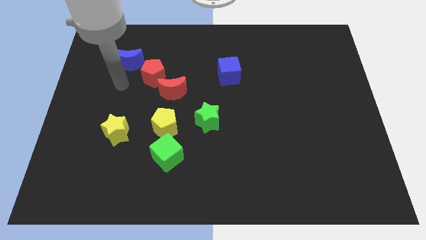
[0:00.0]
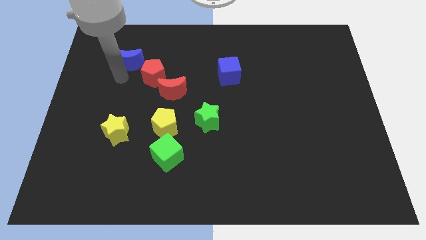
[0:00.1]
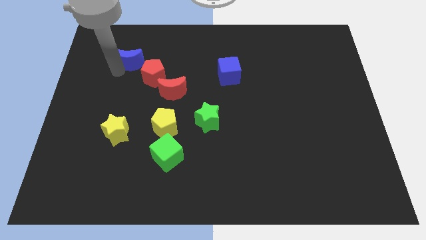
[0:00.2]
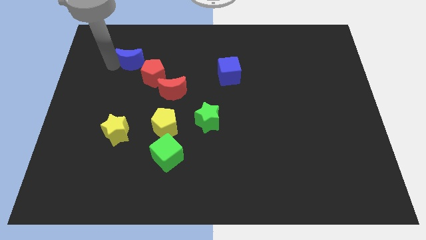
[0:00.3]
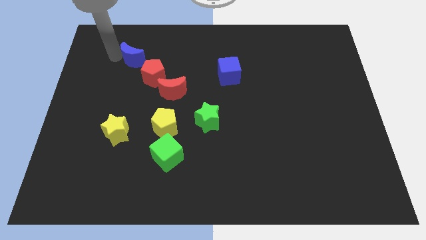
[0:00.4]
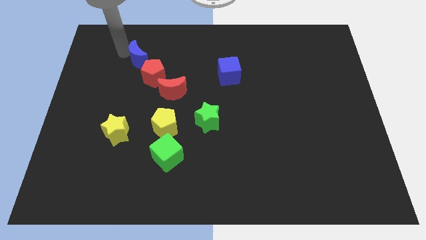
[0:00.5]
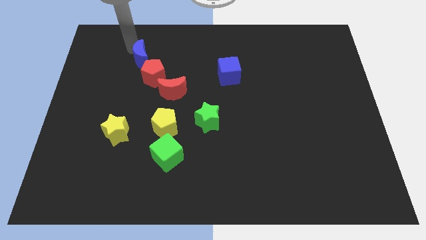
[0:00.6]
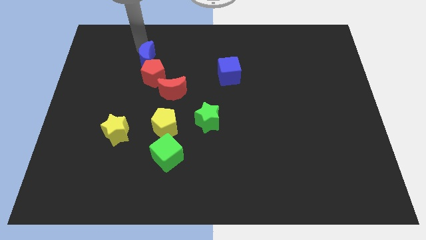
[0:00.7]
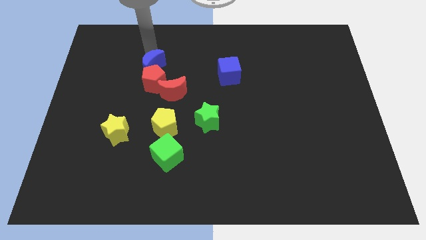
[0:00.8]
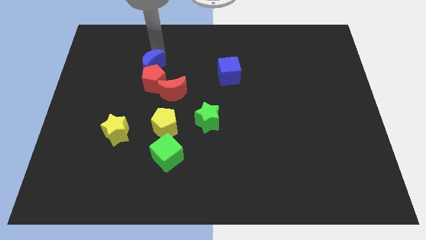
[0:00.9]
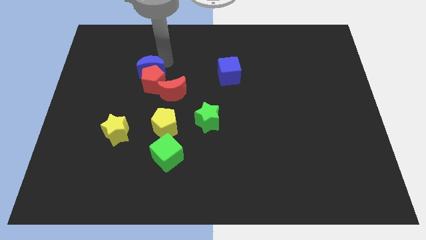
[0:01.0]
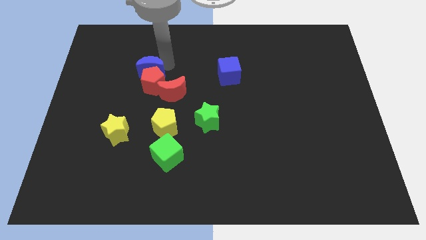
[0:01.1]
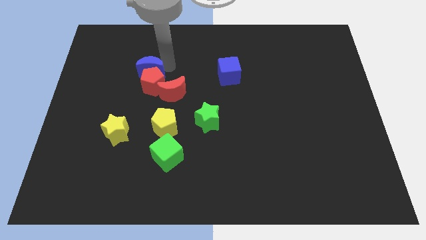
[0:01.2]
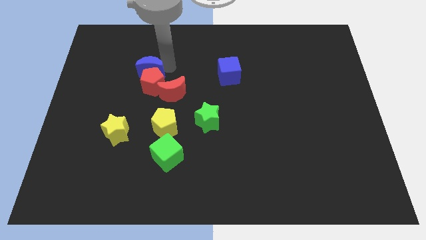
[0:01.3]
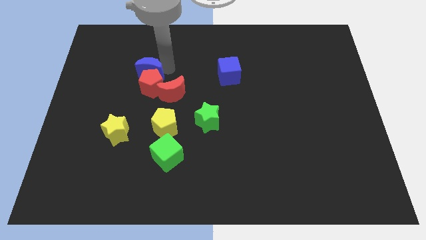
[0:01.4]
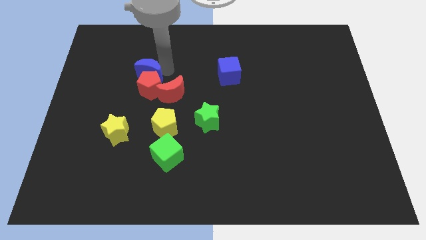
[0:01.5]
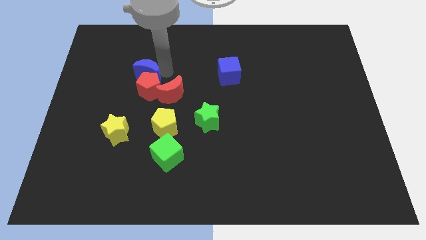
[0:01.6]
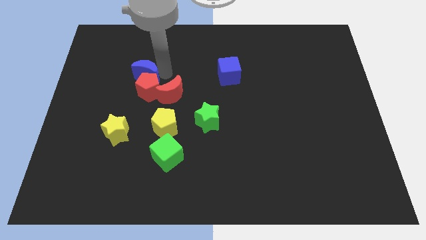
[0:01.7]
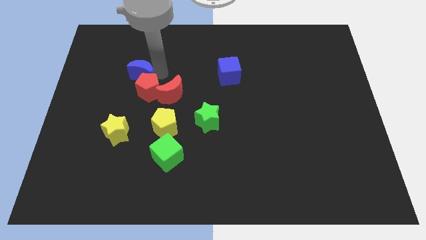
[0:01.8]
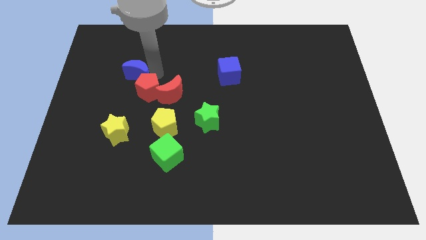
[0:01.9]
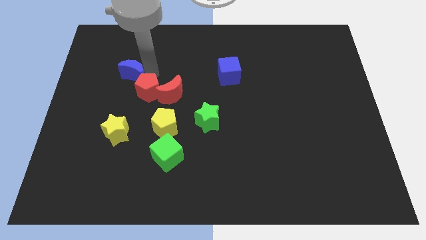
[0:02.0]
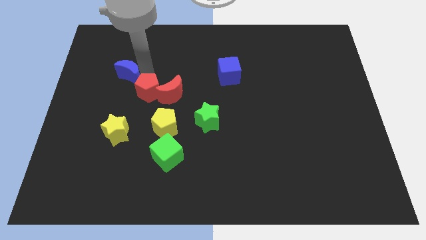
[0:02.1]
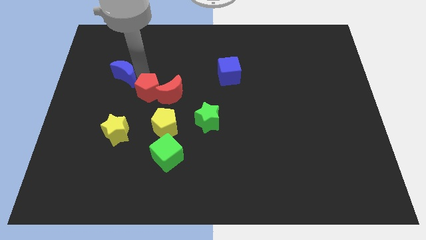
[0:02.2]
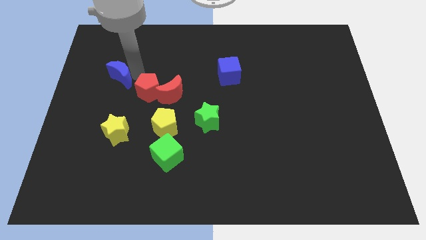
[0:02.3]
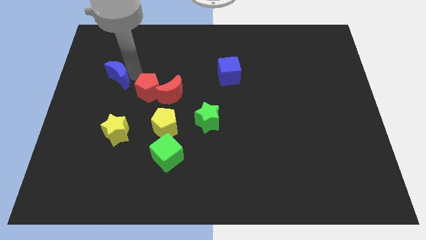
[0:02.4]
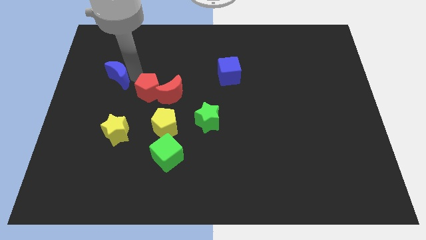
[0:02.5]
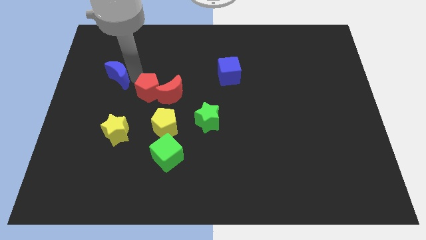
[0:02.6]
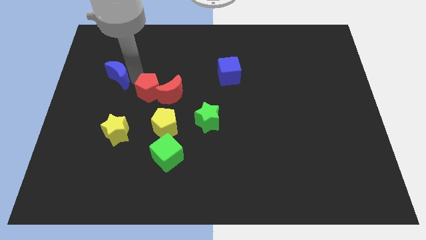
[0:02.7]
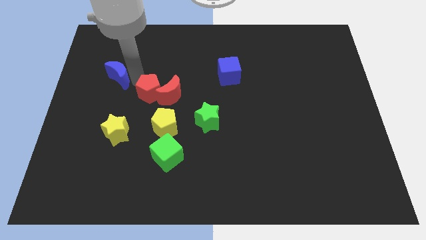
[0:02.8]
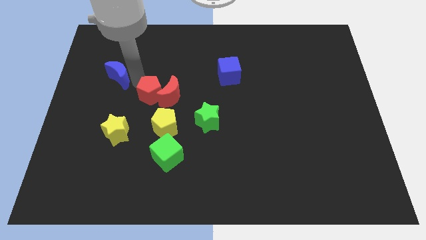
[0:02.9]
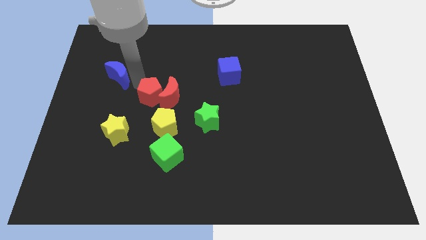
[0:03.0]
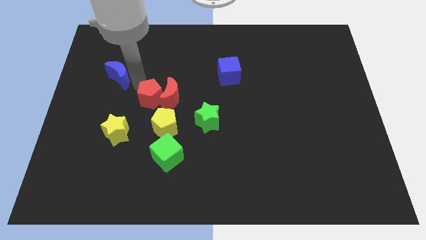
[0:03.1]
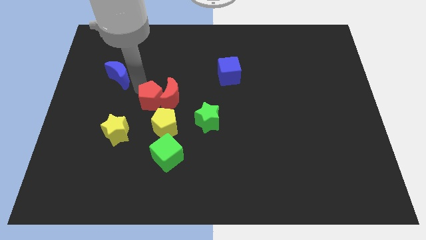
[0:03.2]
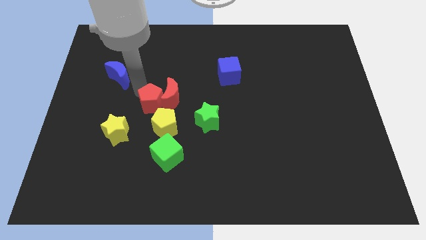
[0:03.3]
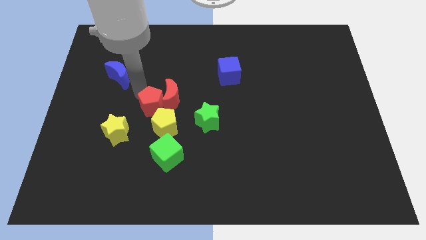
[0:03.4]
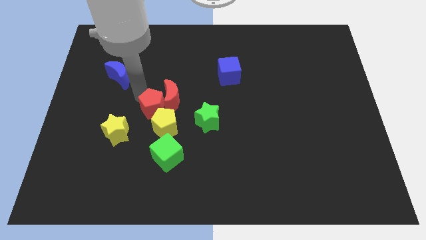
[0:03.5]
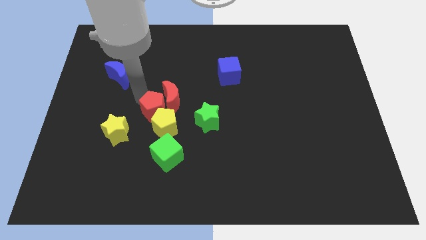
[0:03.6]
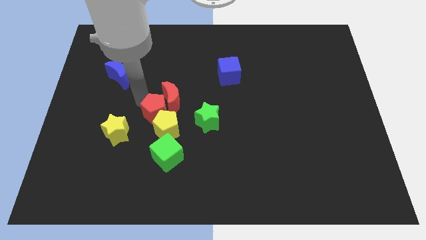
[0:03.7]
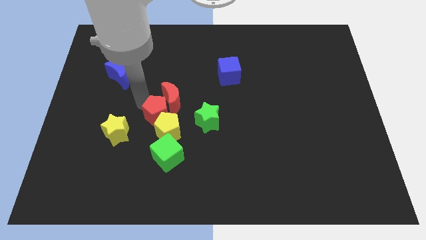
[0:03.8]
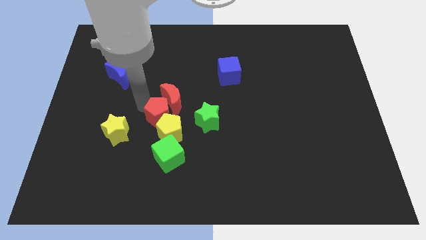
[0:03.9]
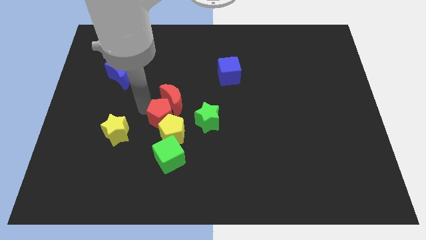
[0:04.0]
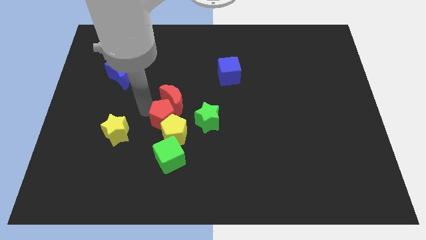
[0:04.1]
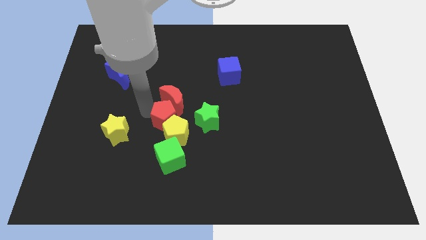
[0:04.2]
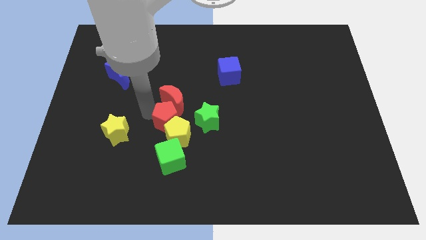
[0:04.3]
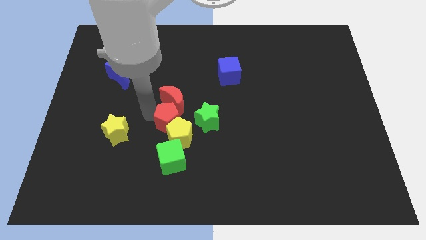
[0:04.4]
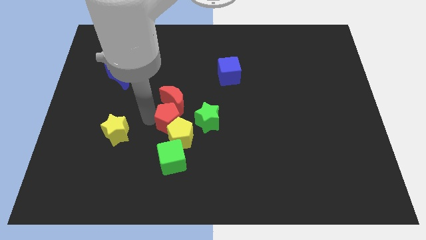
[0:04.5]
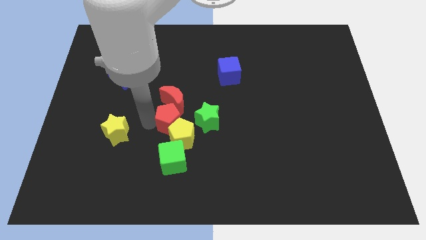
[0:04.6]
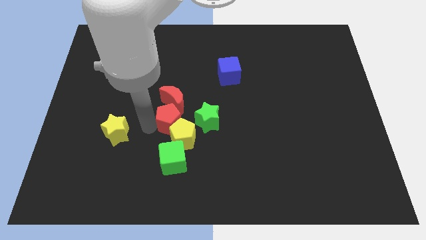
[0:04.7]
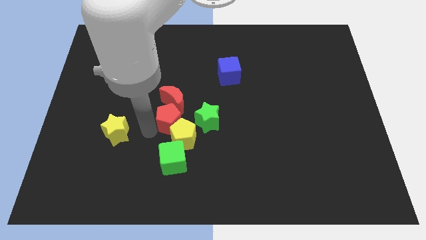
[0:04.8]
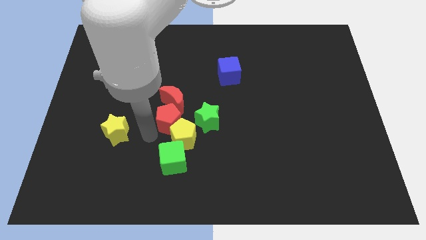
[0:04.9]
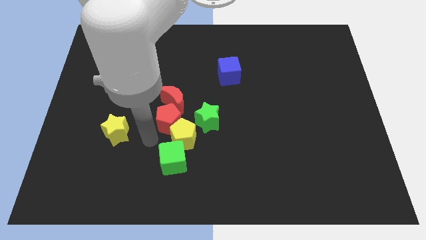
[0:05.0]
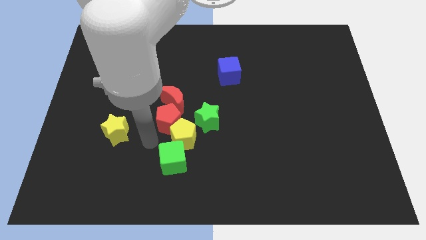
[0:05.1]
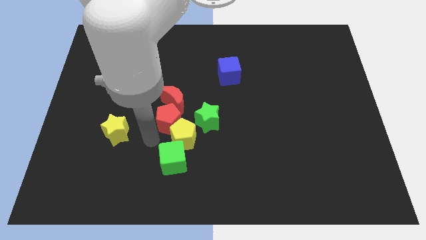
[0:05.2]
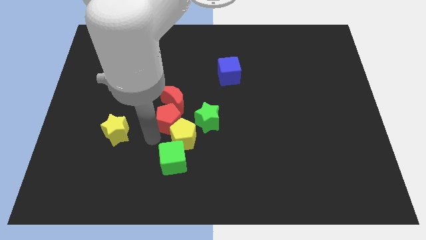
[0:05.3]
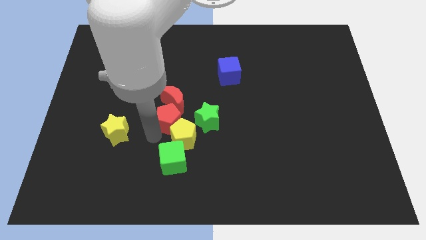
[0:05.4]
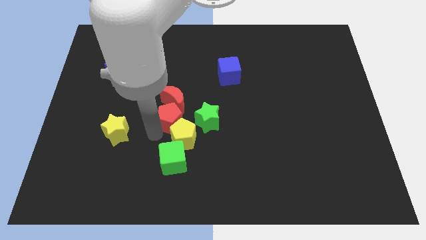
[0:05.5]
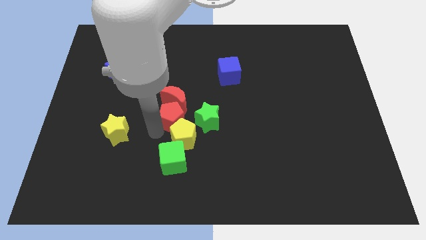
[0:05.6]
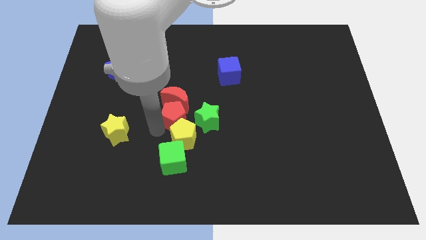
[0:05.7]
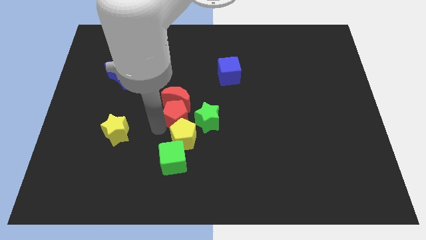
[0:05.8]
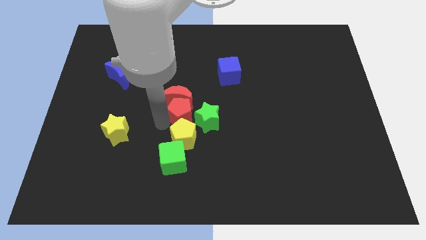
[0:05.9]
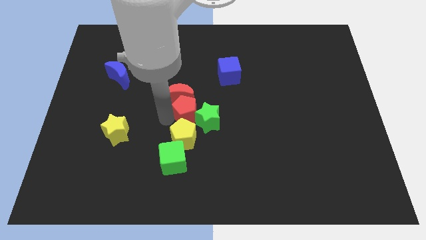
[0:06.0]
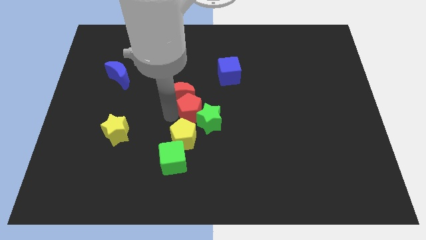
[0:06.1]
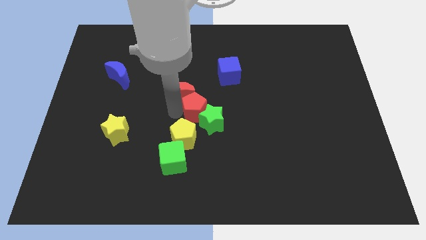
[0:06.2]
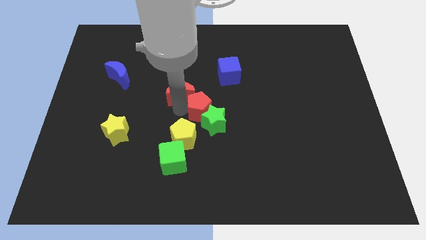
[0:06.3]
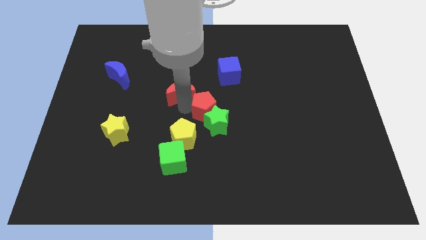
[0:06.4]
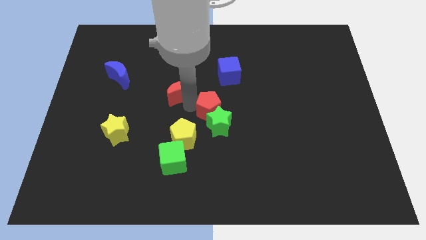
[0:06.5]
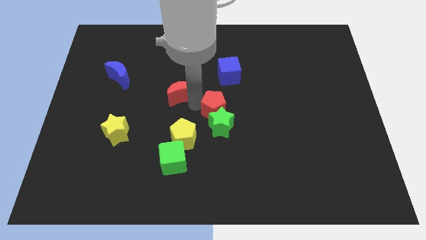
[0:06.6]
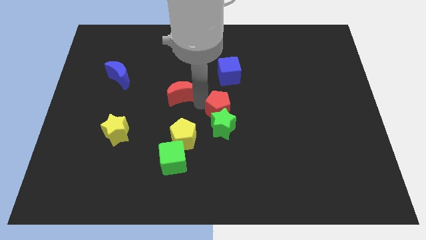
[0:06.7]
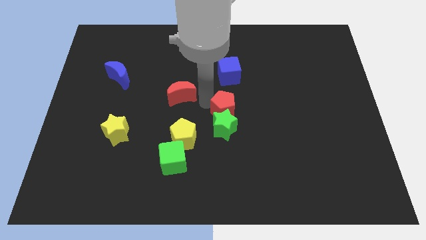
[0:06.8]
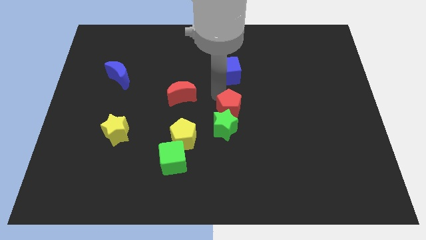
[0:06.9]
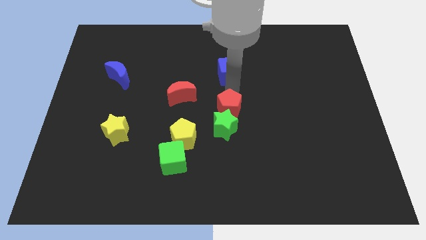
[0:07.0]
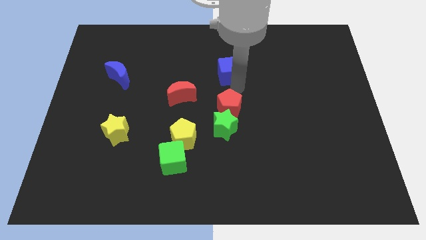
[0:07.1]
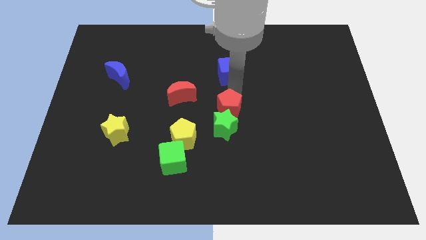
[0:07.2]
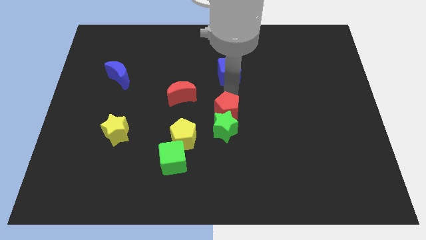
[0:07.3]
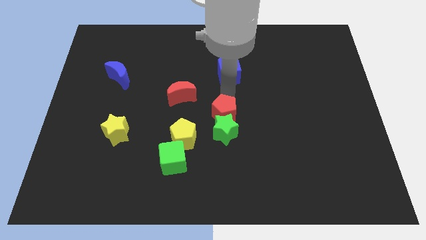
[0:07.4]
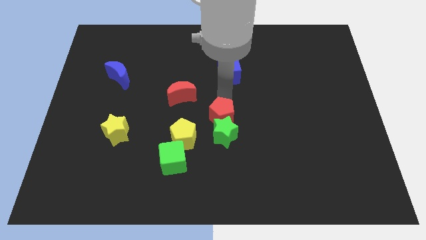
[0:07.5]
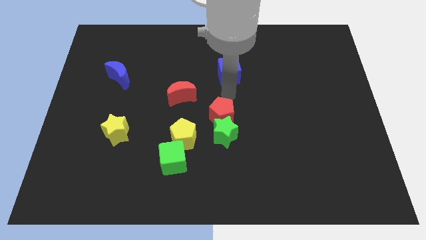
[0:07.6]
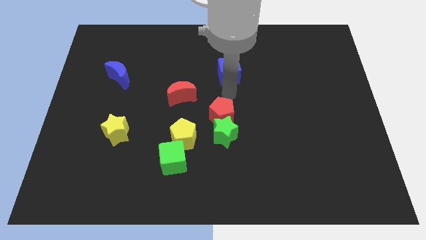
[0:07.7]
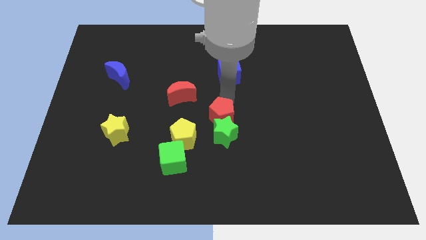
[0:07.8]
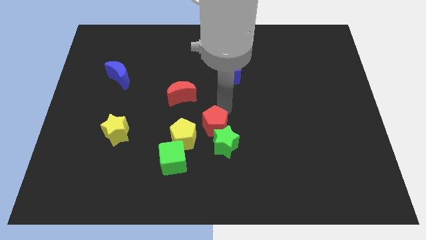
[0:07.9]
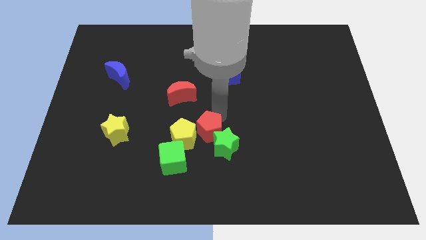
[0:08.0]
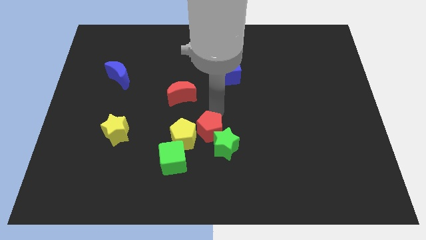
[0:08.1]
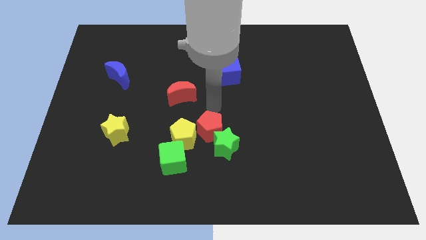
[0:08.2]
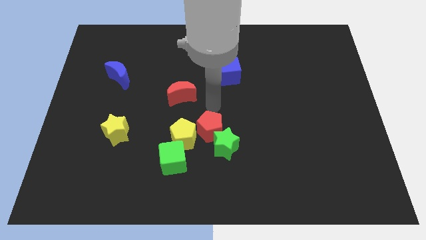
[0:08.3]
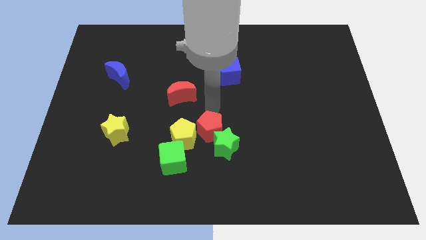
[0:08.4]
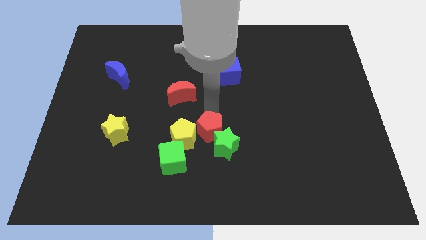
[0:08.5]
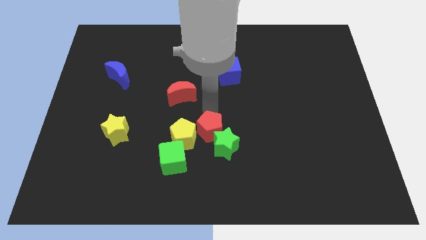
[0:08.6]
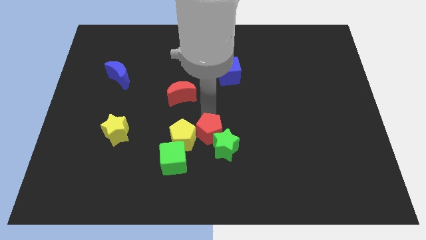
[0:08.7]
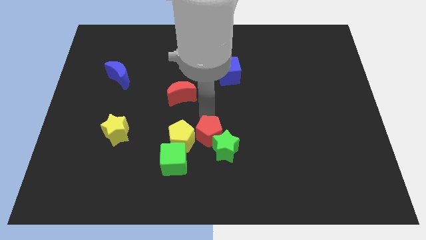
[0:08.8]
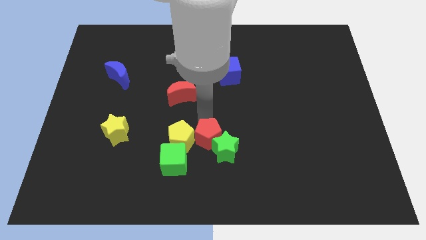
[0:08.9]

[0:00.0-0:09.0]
put the red pentagon to the bottom right side of the yellow pentagon
